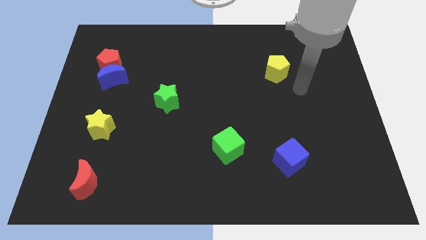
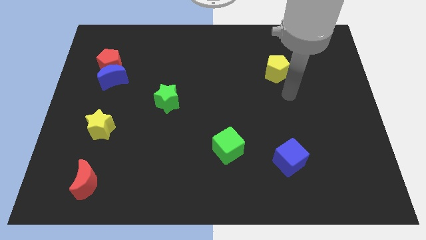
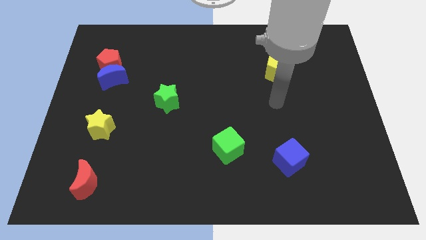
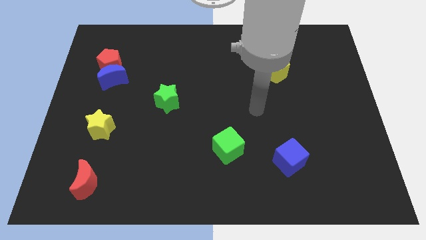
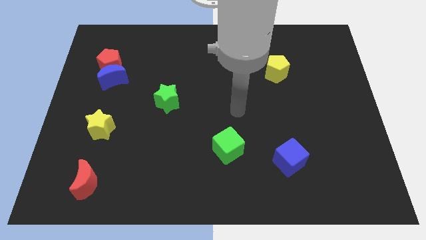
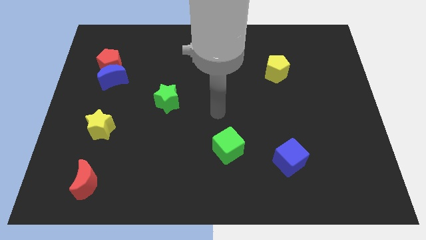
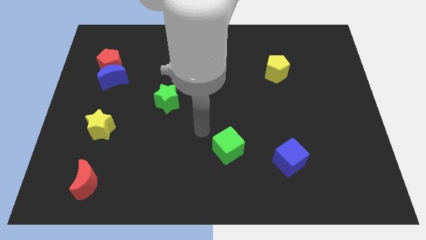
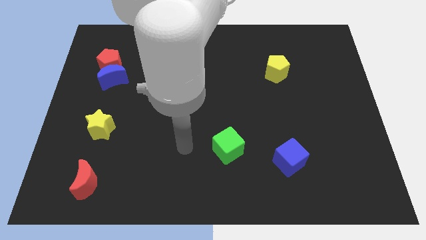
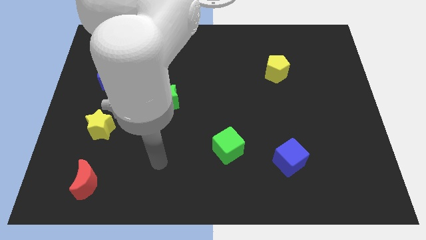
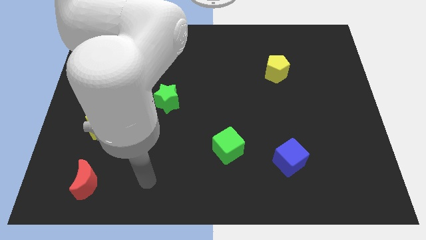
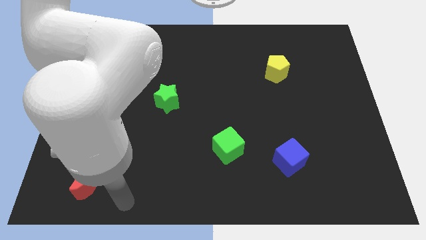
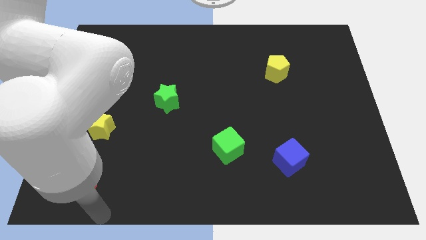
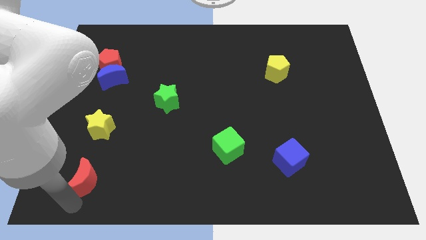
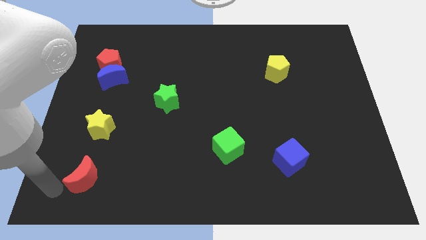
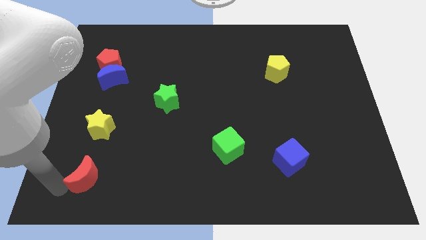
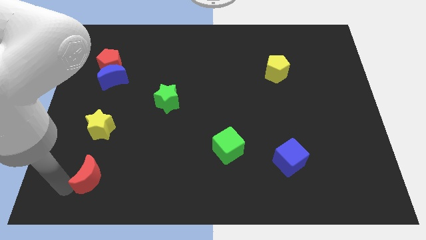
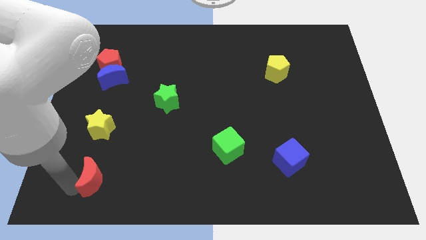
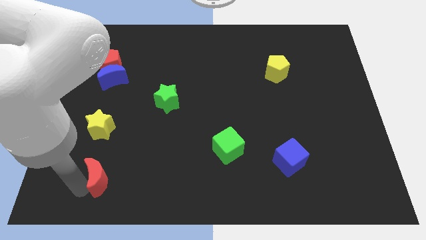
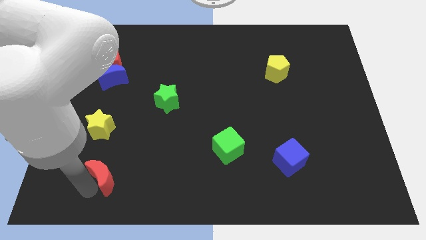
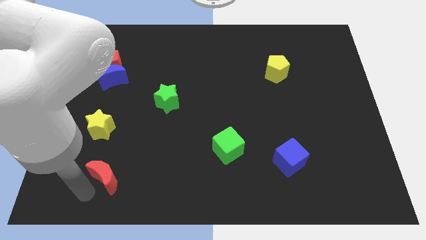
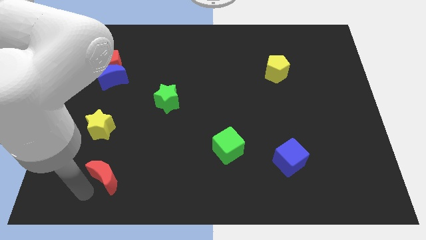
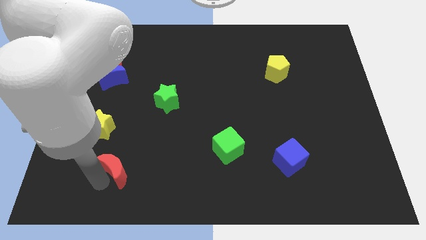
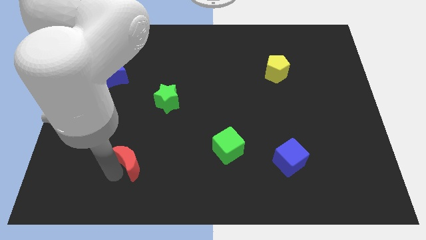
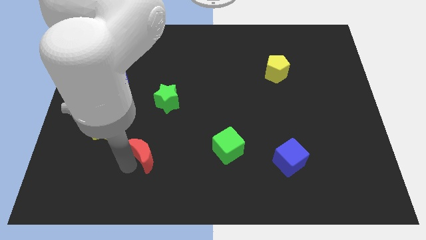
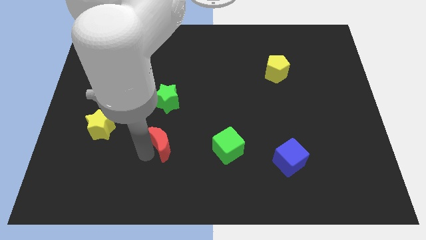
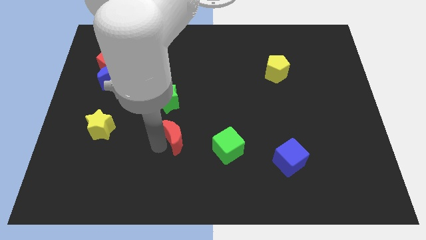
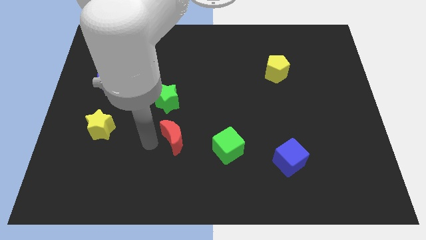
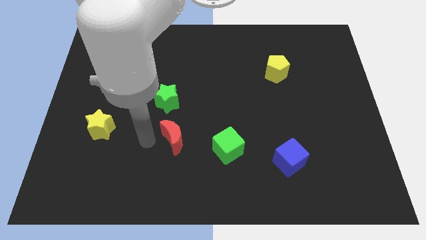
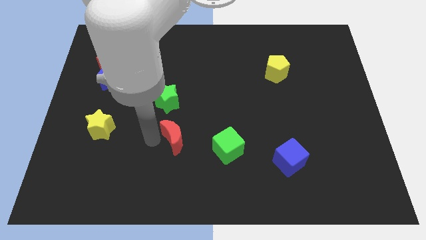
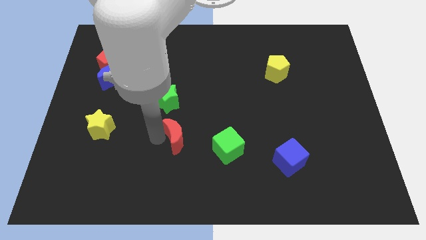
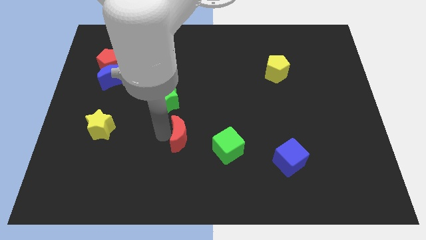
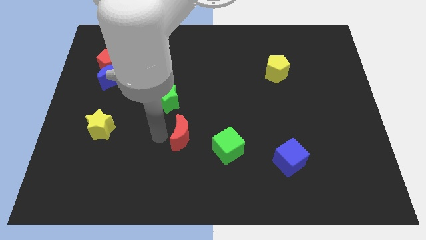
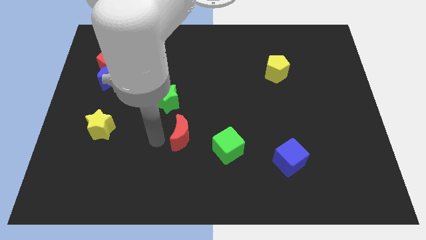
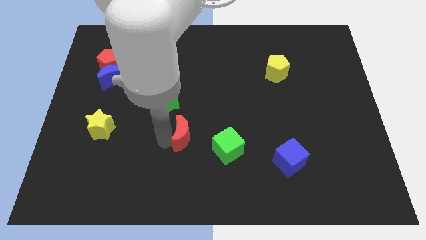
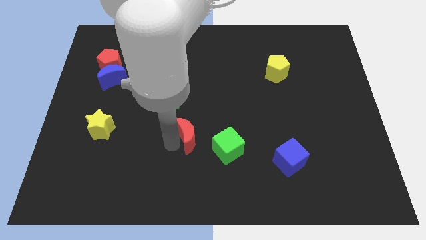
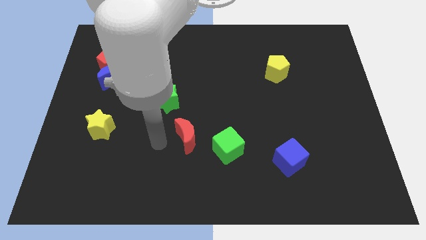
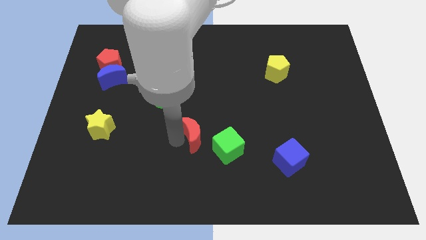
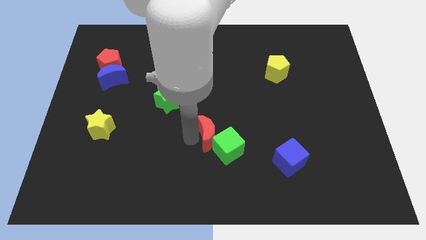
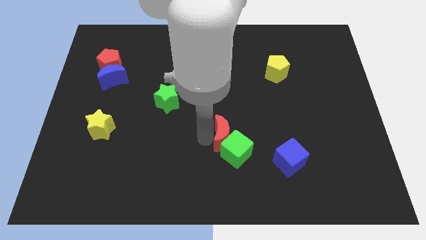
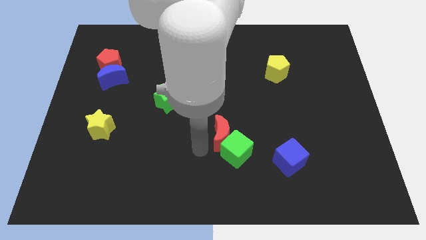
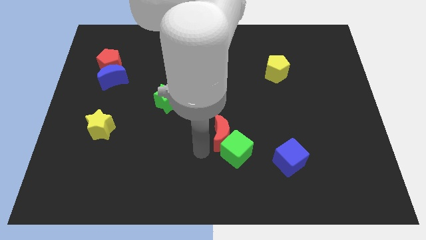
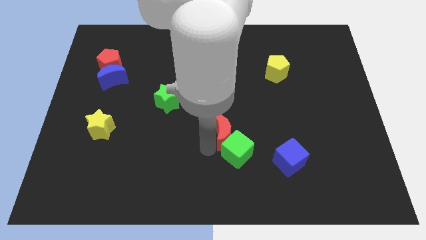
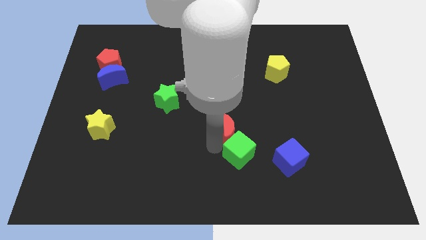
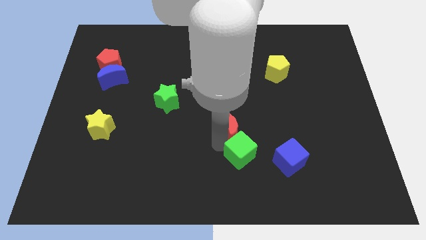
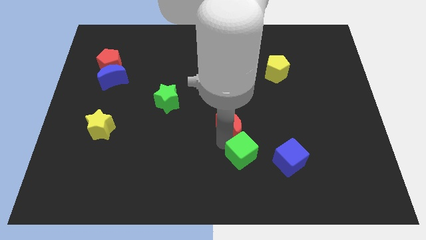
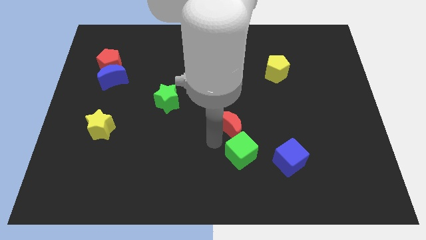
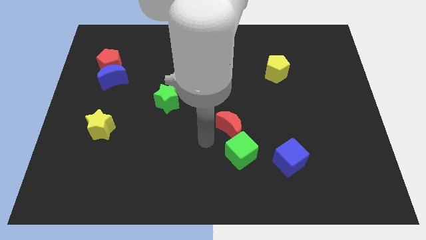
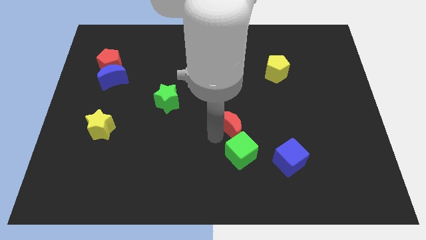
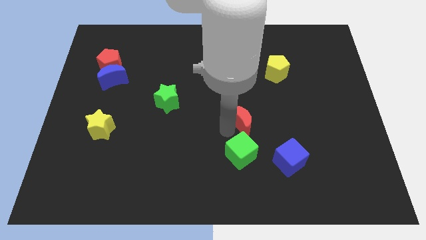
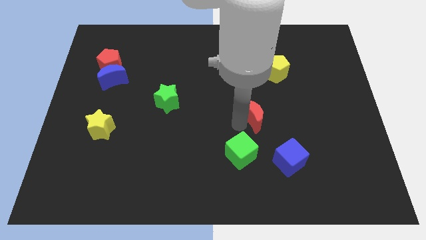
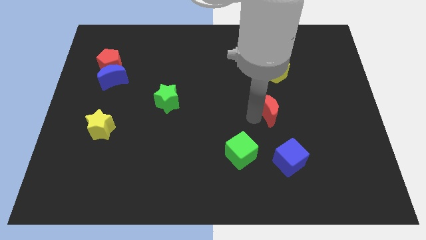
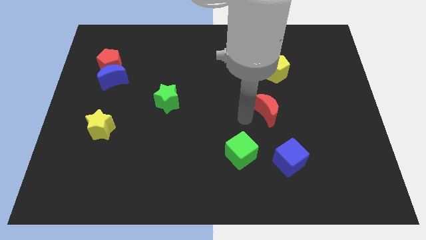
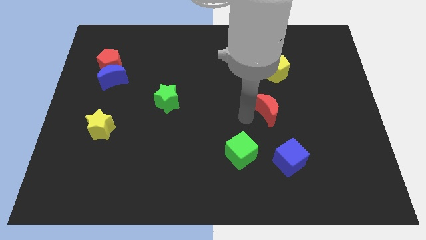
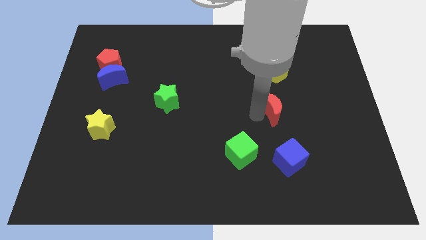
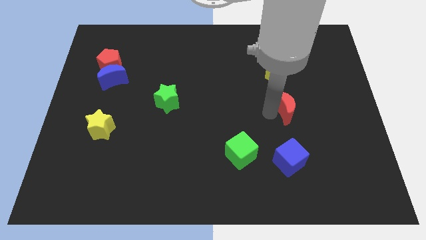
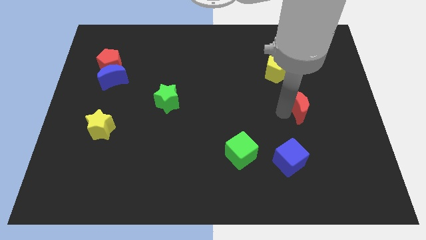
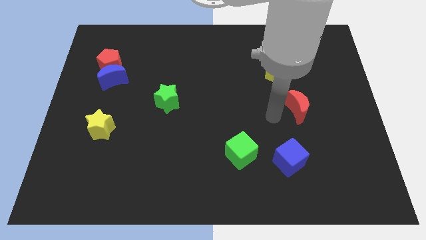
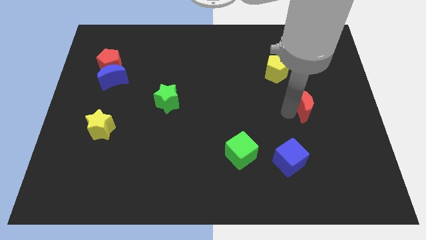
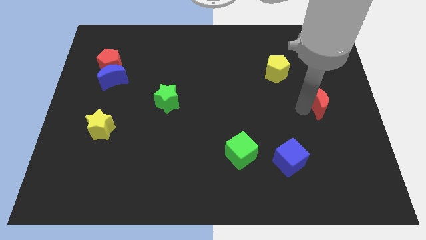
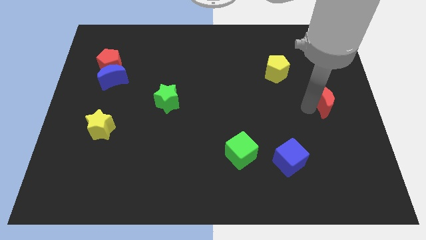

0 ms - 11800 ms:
put the red moon to the right side of the board
